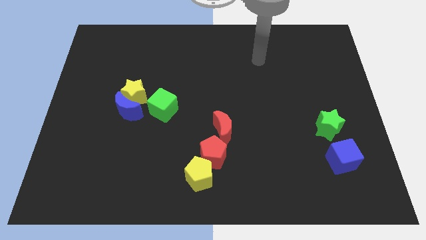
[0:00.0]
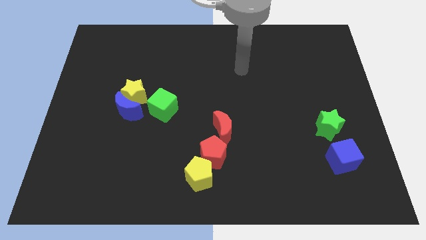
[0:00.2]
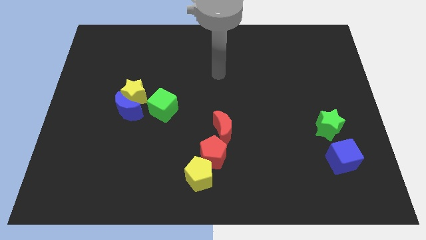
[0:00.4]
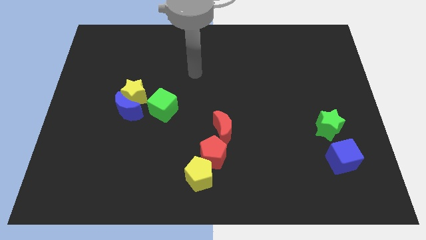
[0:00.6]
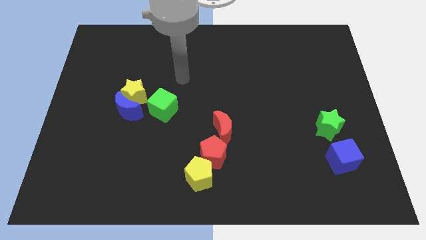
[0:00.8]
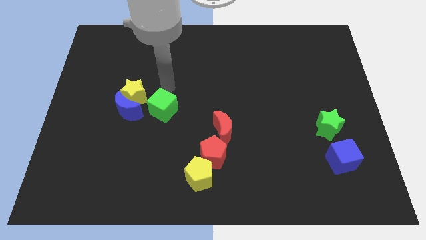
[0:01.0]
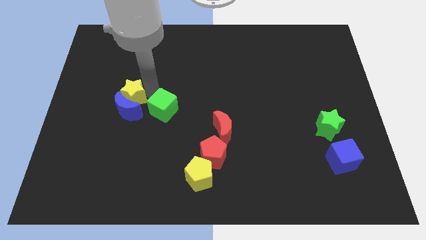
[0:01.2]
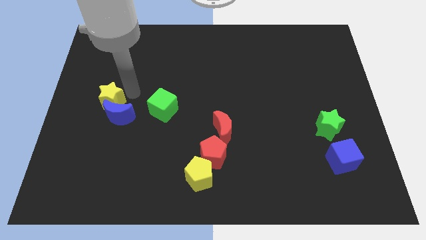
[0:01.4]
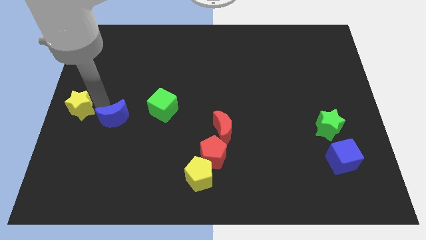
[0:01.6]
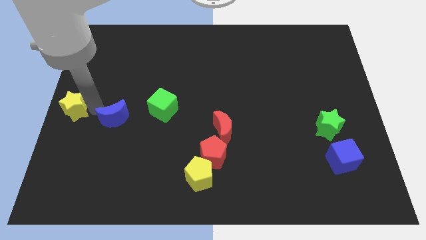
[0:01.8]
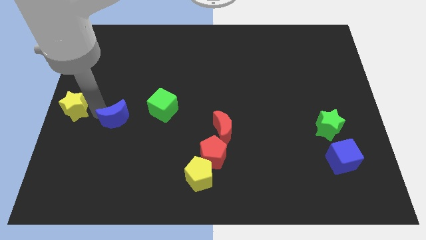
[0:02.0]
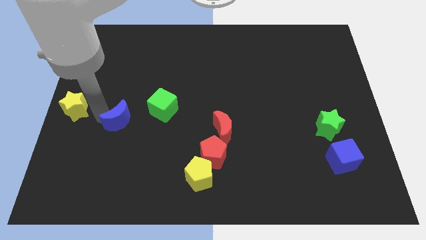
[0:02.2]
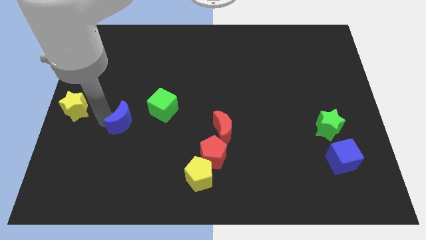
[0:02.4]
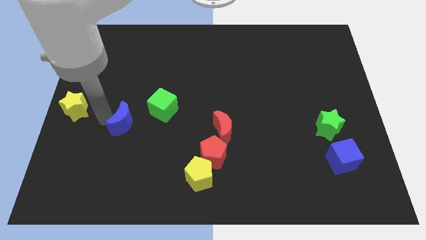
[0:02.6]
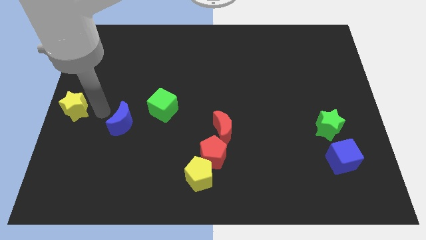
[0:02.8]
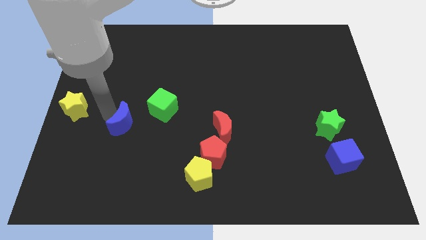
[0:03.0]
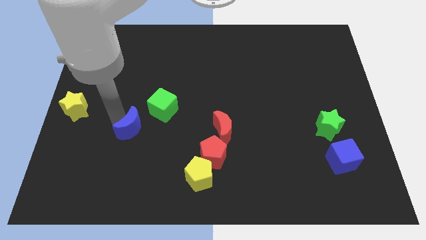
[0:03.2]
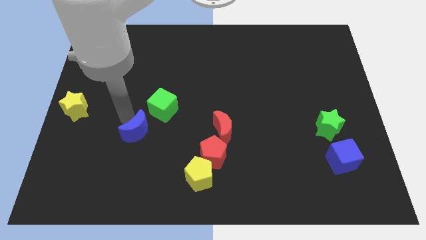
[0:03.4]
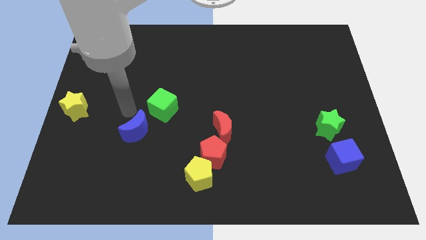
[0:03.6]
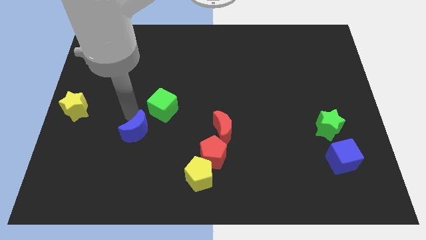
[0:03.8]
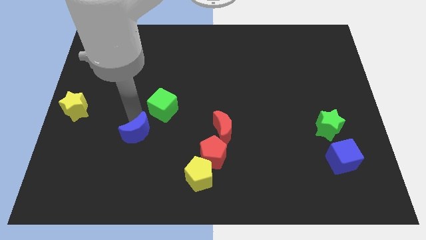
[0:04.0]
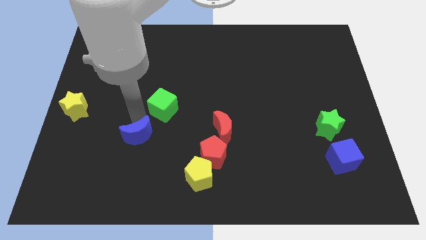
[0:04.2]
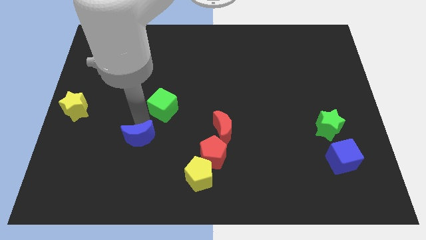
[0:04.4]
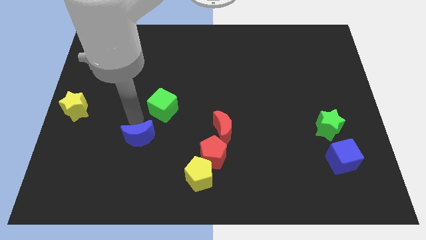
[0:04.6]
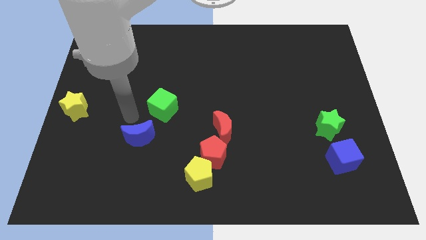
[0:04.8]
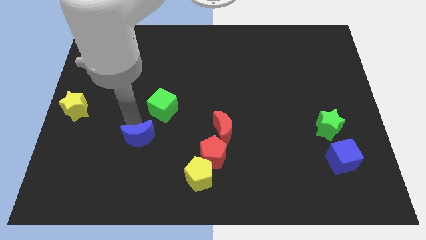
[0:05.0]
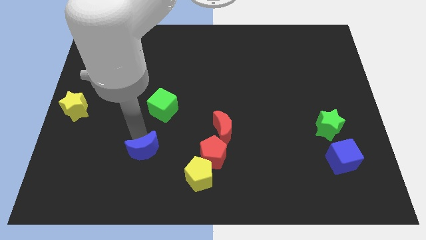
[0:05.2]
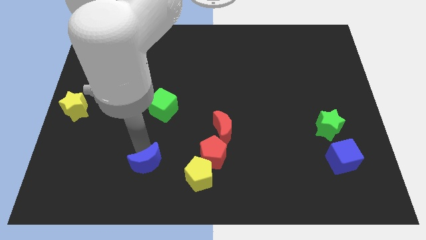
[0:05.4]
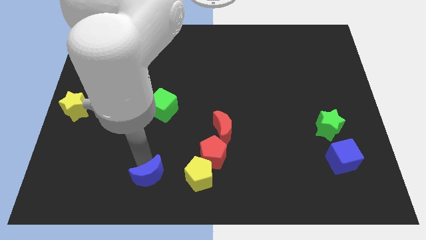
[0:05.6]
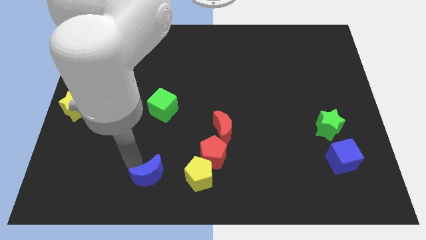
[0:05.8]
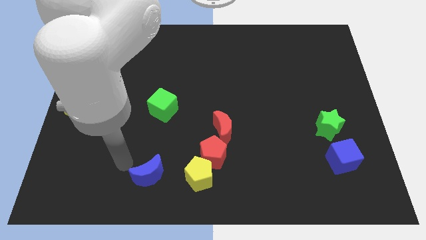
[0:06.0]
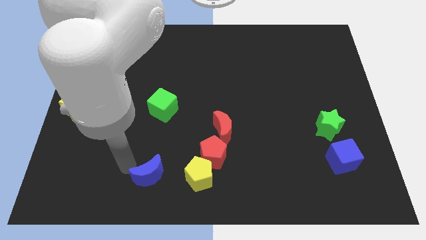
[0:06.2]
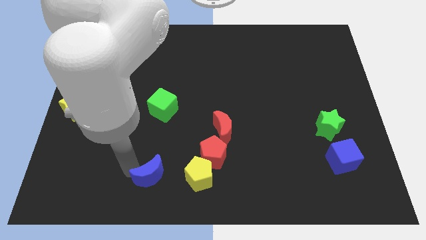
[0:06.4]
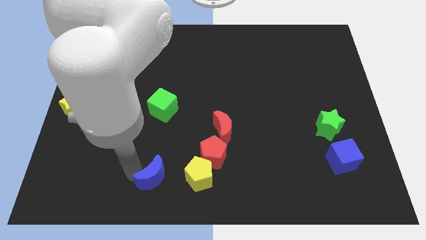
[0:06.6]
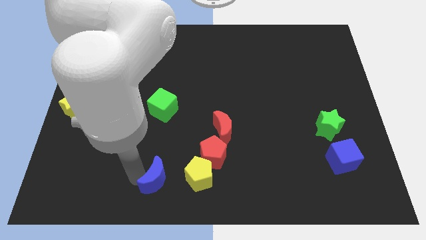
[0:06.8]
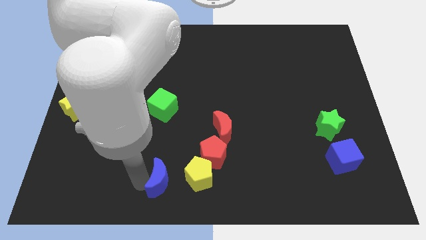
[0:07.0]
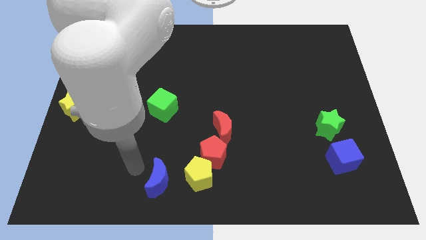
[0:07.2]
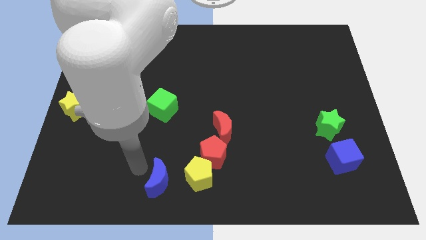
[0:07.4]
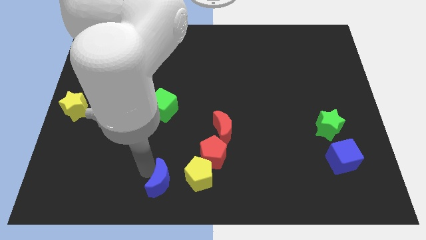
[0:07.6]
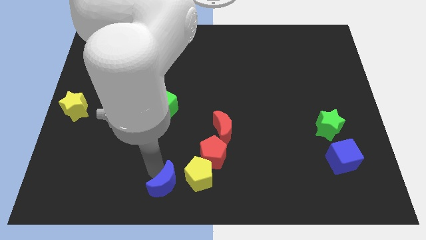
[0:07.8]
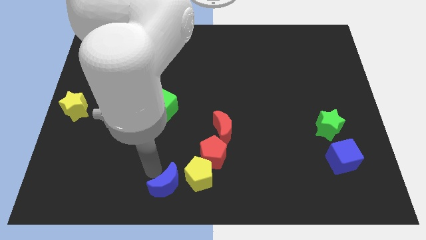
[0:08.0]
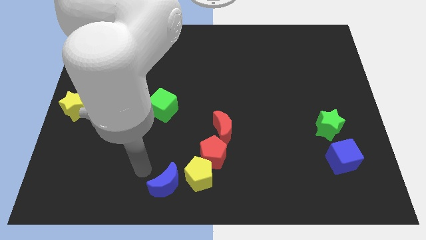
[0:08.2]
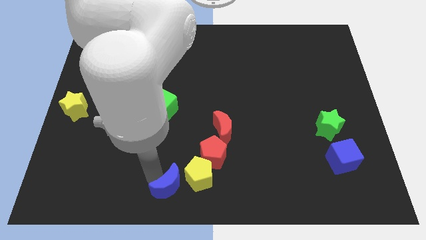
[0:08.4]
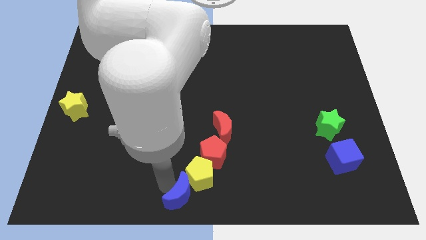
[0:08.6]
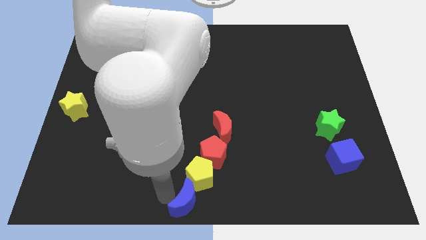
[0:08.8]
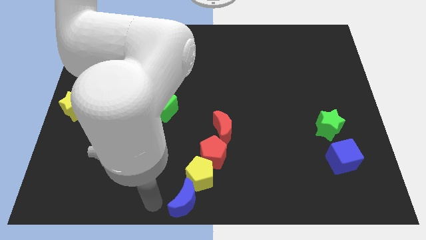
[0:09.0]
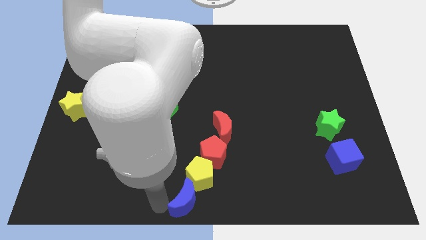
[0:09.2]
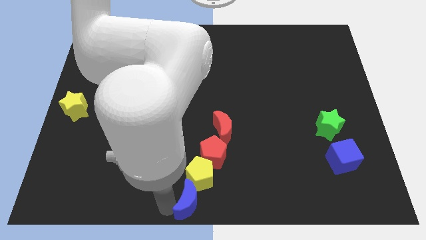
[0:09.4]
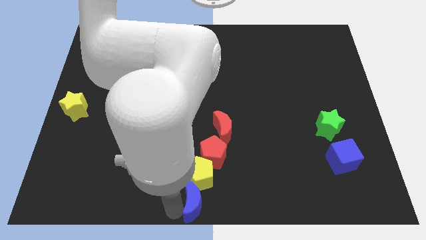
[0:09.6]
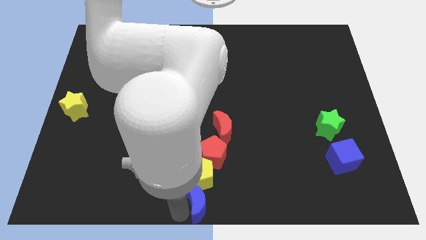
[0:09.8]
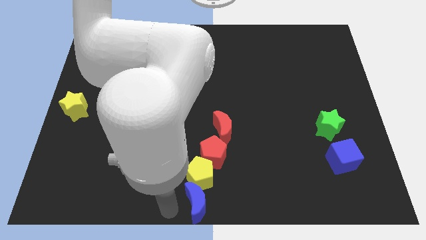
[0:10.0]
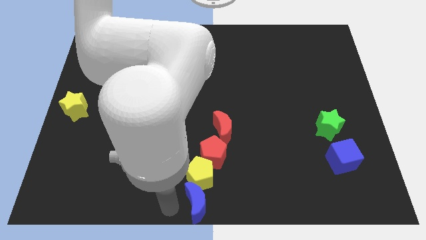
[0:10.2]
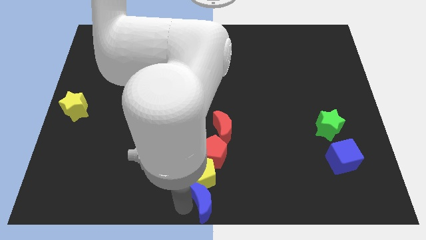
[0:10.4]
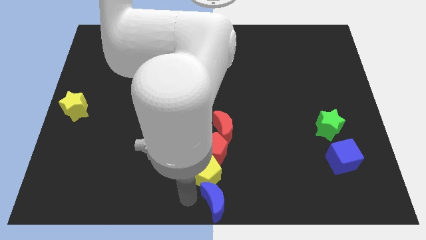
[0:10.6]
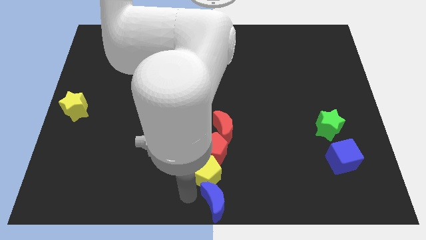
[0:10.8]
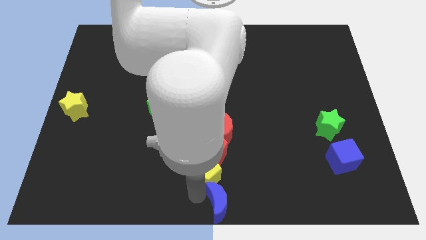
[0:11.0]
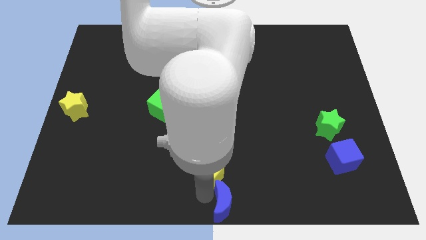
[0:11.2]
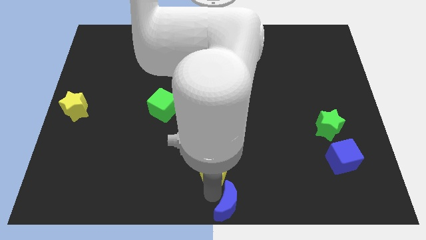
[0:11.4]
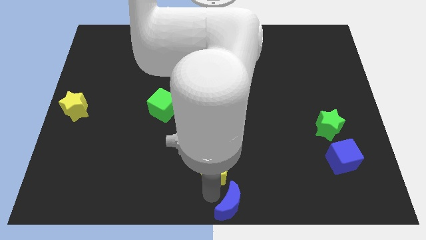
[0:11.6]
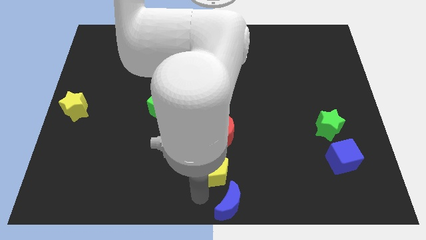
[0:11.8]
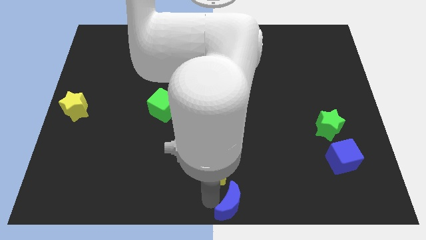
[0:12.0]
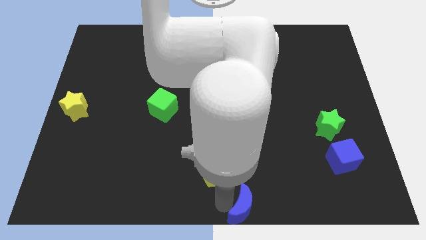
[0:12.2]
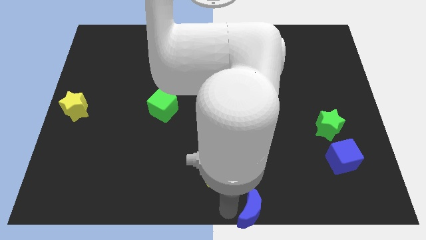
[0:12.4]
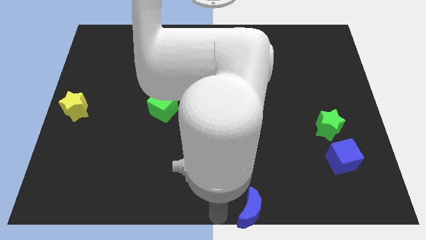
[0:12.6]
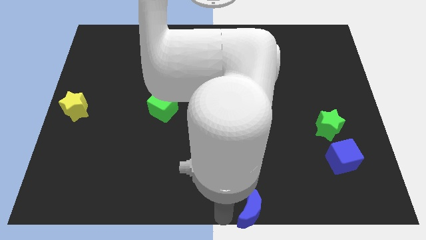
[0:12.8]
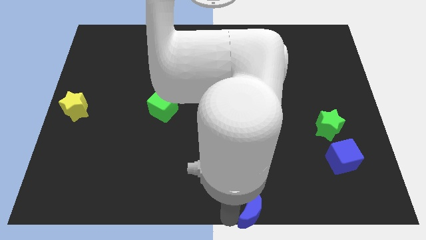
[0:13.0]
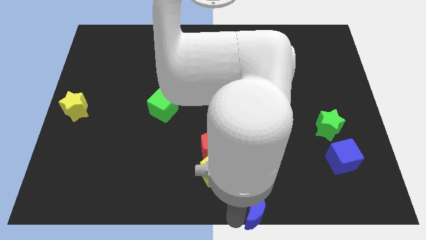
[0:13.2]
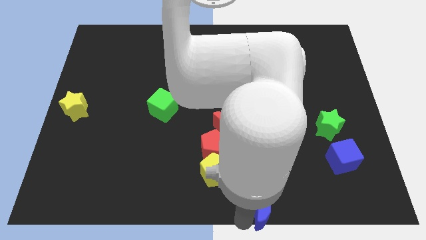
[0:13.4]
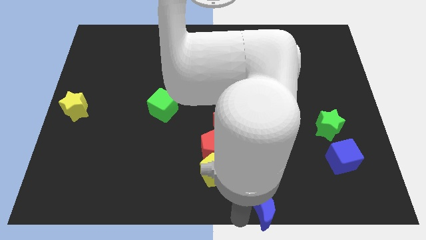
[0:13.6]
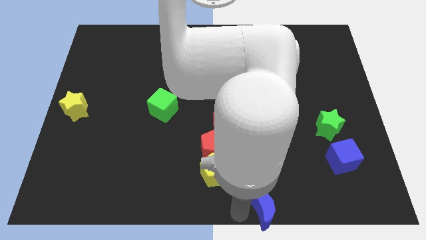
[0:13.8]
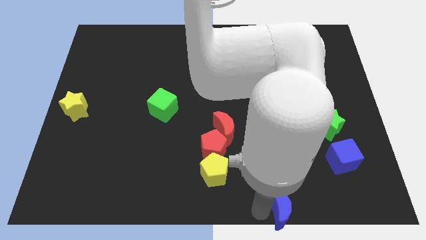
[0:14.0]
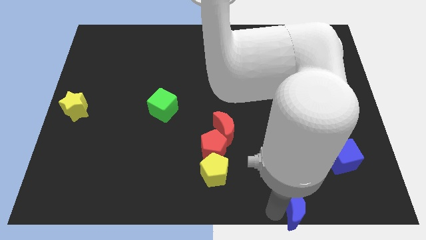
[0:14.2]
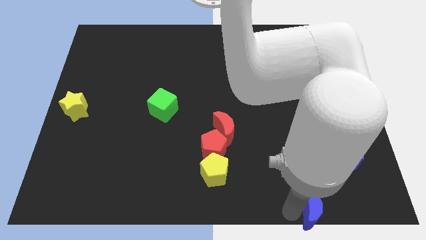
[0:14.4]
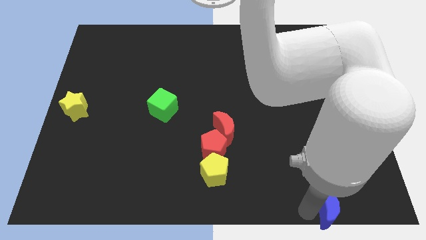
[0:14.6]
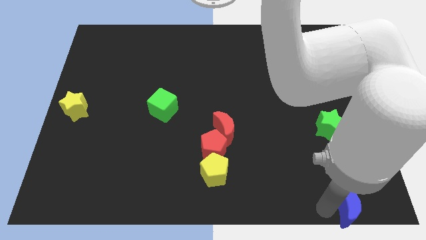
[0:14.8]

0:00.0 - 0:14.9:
put the blue moon to the bottom right of the board
